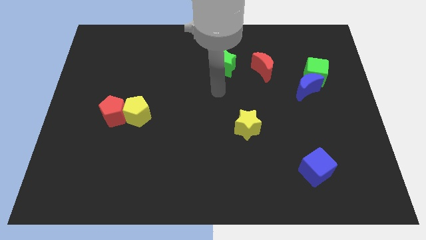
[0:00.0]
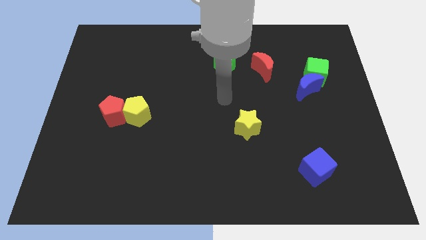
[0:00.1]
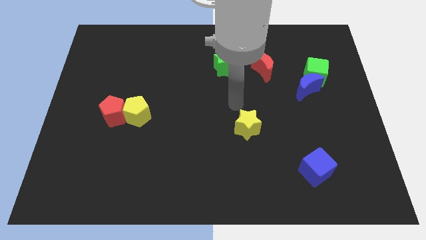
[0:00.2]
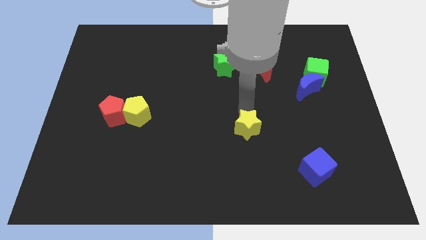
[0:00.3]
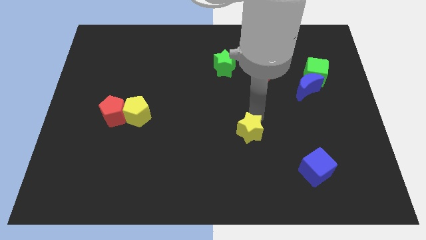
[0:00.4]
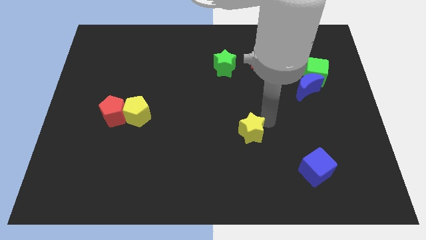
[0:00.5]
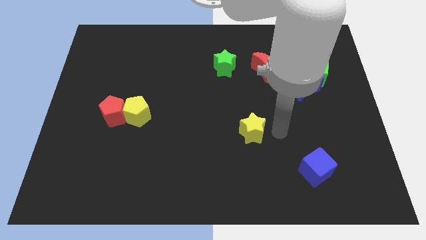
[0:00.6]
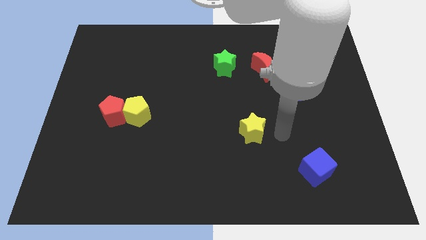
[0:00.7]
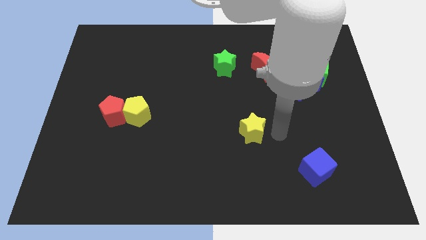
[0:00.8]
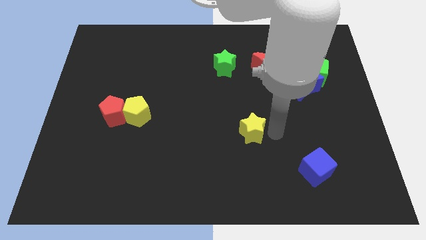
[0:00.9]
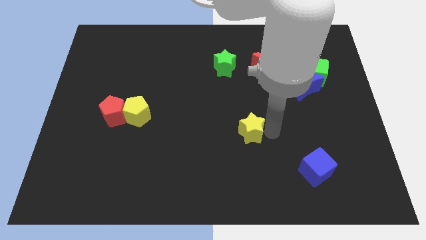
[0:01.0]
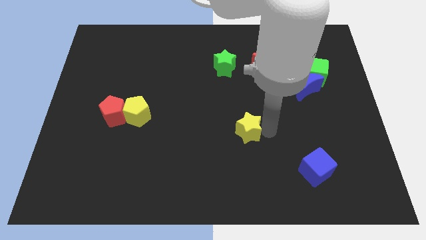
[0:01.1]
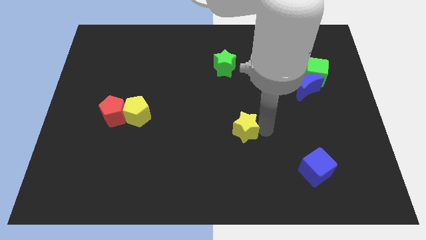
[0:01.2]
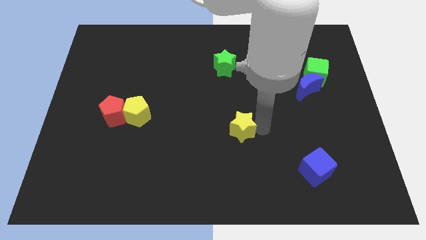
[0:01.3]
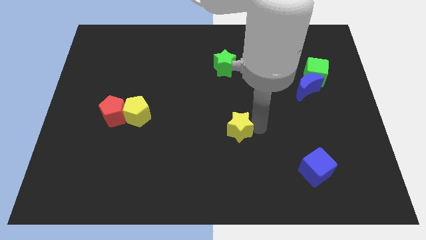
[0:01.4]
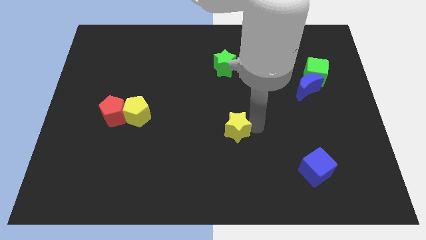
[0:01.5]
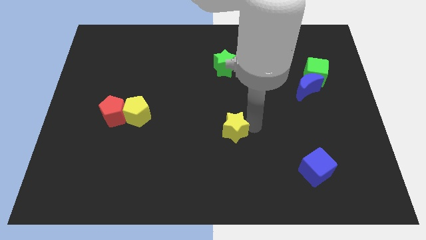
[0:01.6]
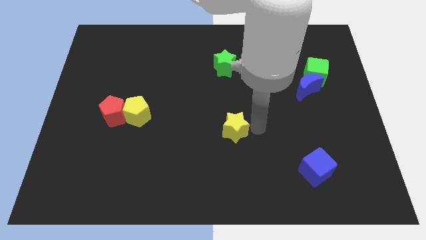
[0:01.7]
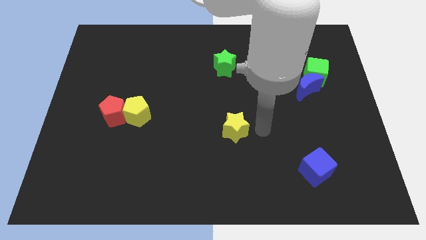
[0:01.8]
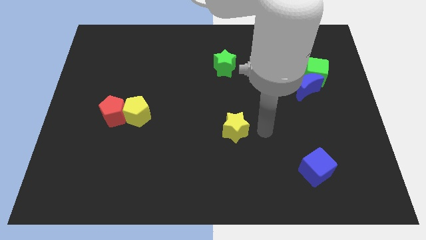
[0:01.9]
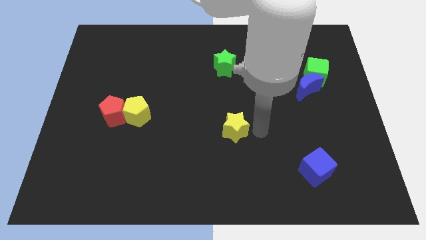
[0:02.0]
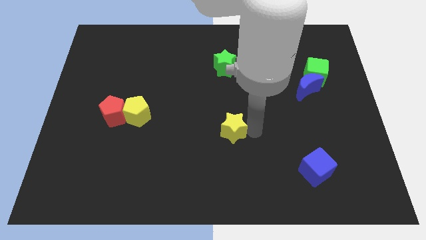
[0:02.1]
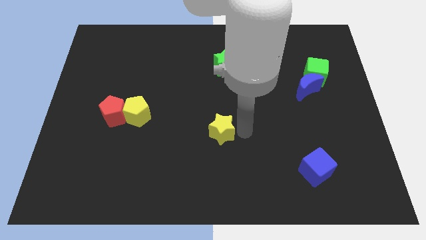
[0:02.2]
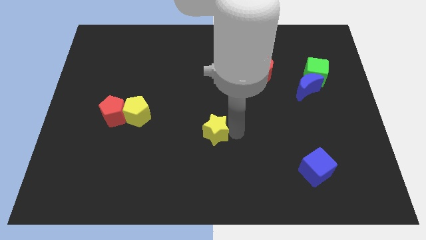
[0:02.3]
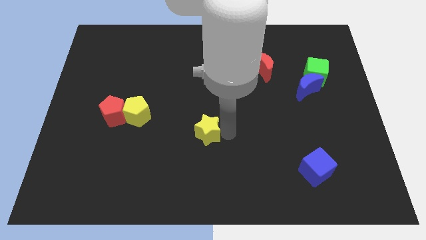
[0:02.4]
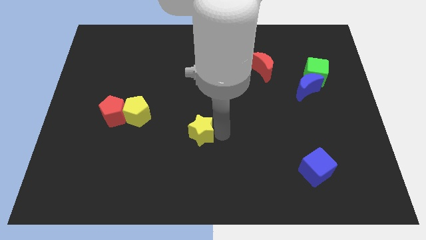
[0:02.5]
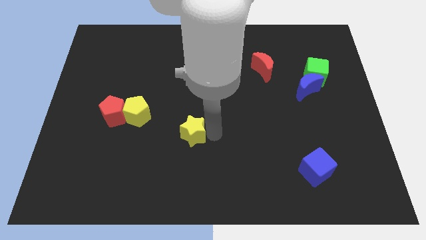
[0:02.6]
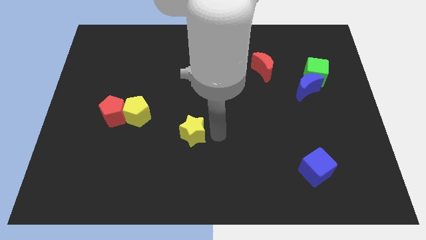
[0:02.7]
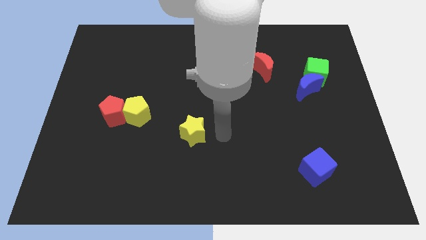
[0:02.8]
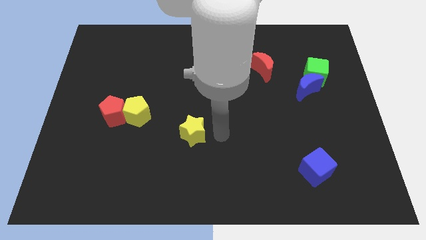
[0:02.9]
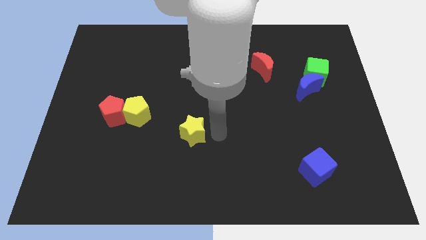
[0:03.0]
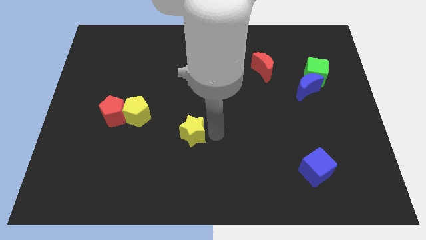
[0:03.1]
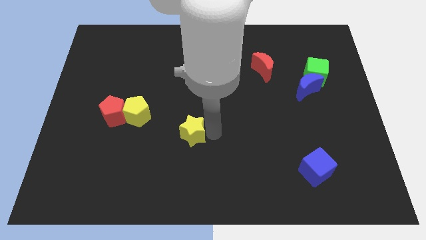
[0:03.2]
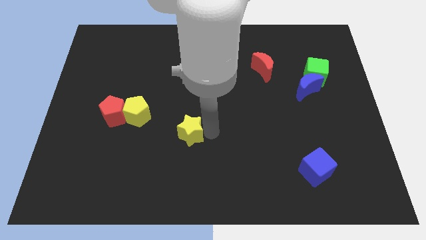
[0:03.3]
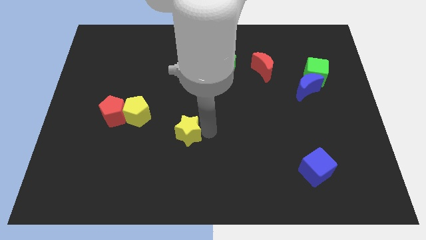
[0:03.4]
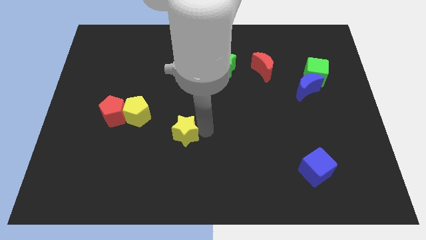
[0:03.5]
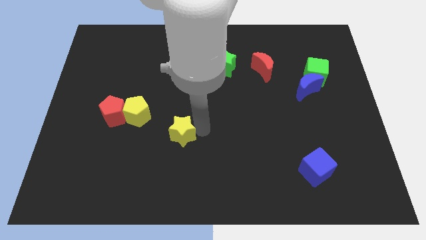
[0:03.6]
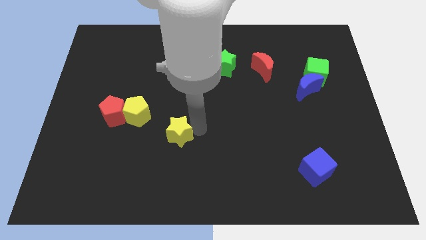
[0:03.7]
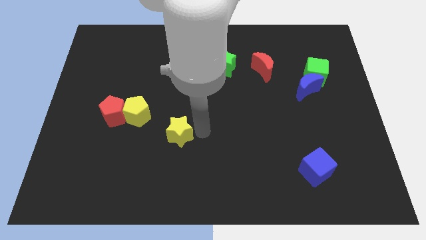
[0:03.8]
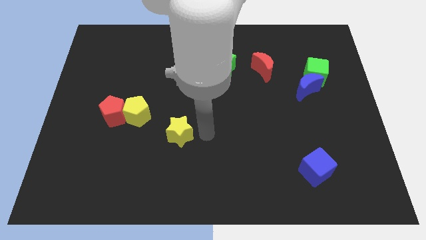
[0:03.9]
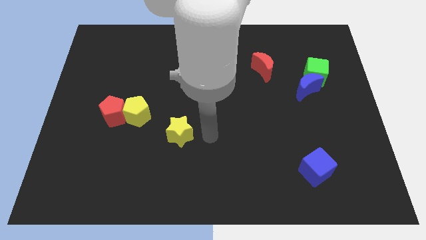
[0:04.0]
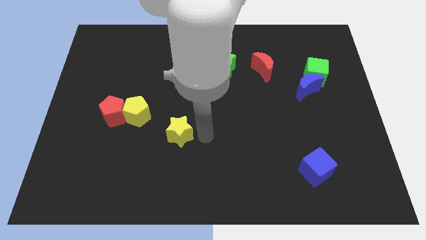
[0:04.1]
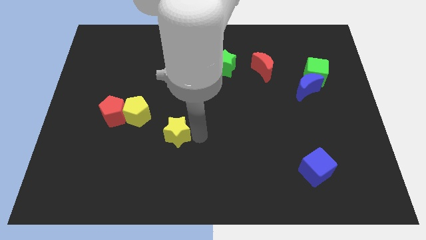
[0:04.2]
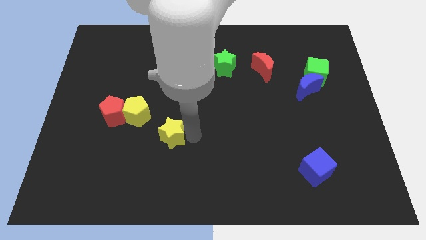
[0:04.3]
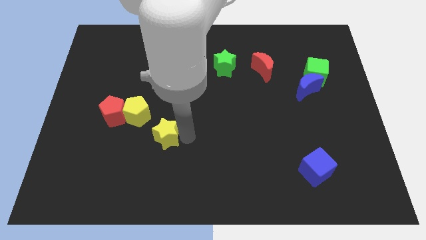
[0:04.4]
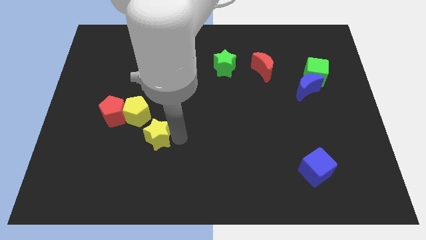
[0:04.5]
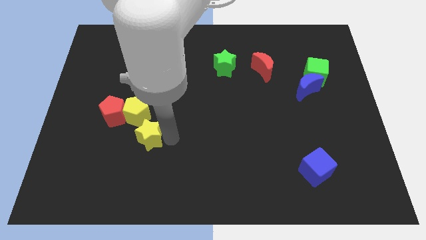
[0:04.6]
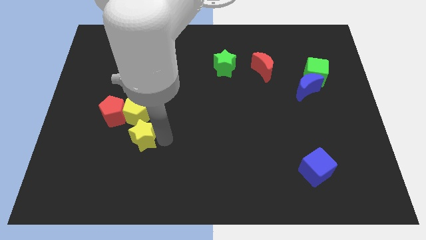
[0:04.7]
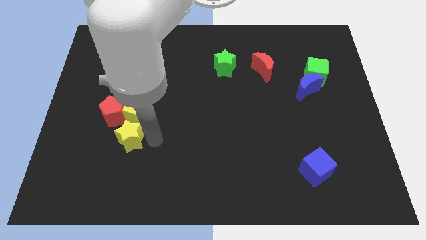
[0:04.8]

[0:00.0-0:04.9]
push the yellow star to the bottom left side of the yellow pentagon

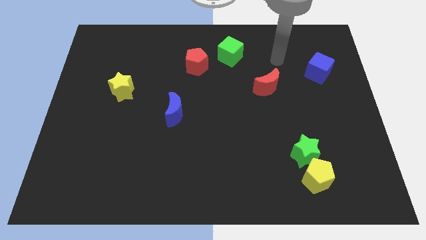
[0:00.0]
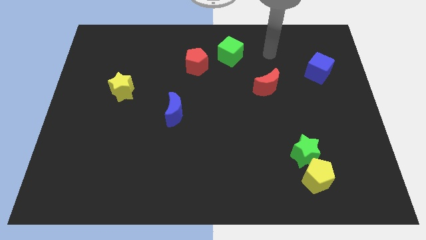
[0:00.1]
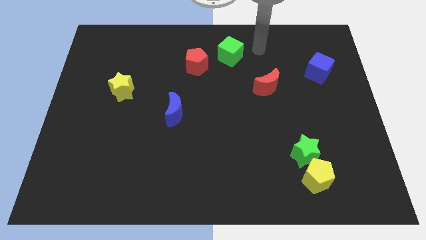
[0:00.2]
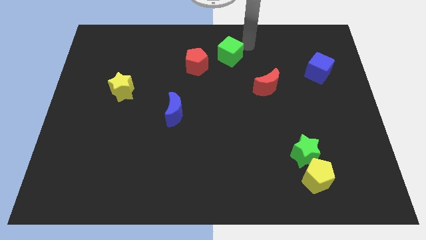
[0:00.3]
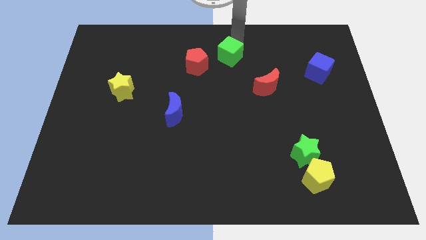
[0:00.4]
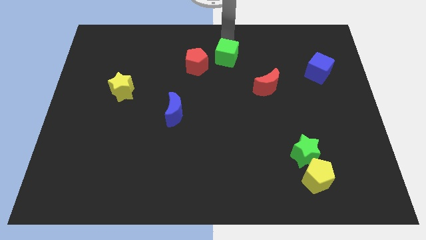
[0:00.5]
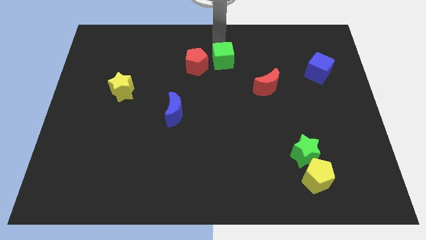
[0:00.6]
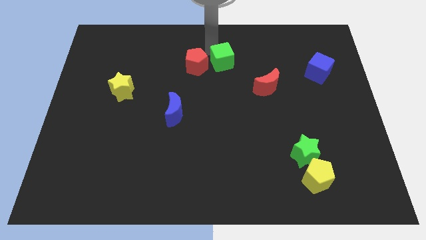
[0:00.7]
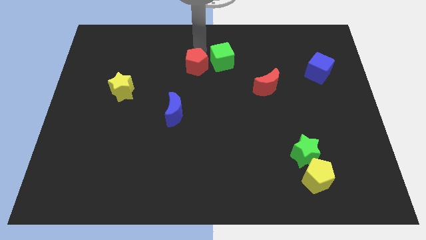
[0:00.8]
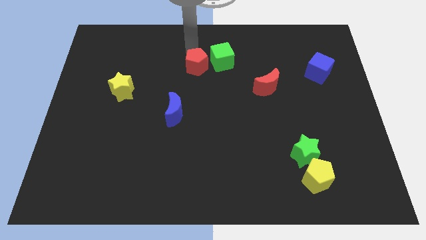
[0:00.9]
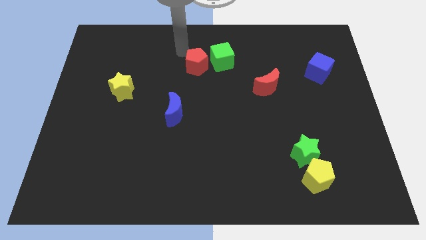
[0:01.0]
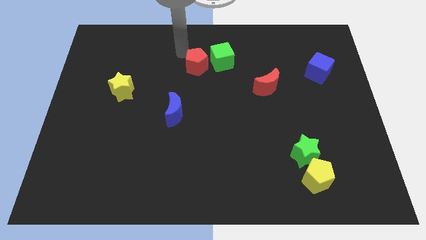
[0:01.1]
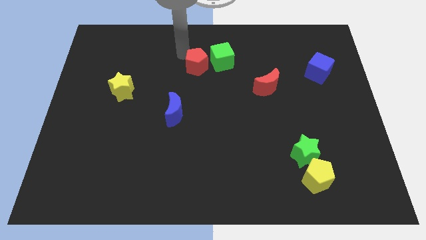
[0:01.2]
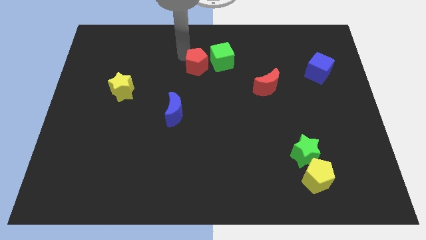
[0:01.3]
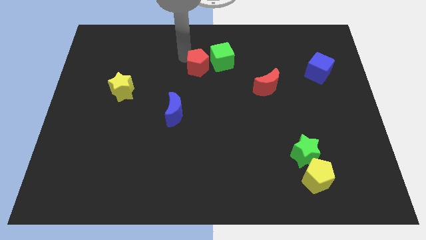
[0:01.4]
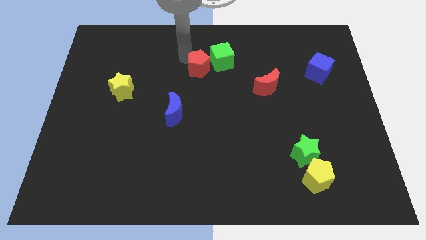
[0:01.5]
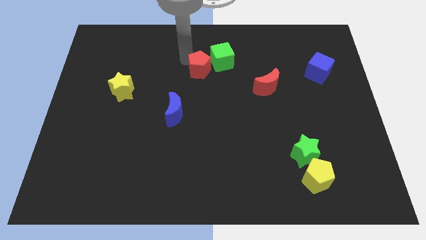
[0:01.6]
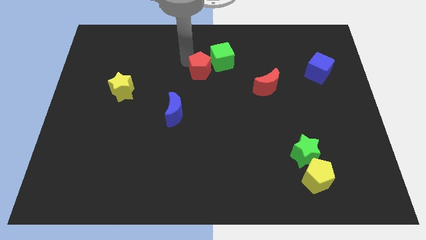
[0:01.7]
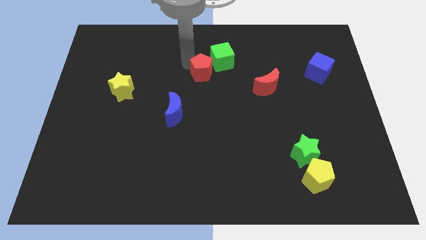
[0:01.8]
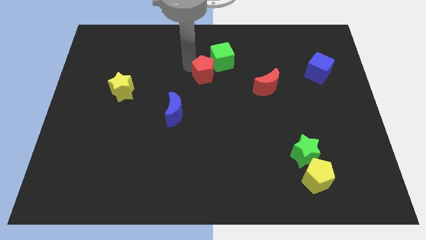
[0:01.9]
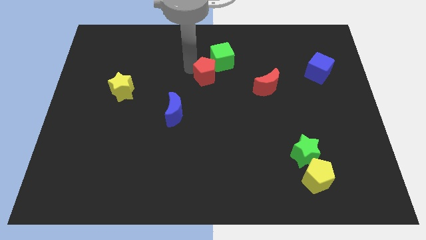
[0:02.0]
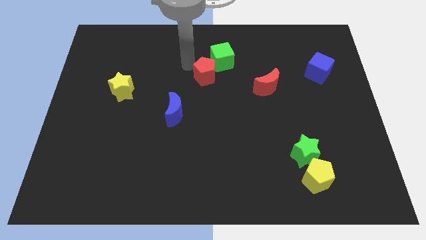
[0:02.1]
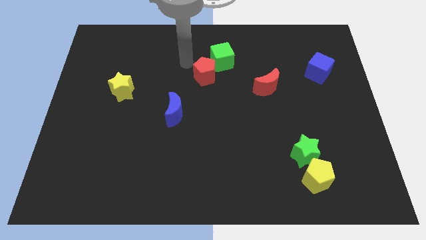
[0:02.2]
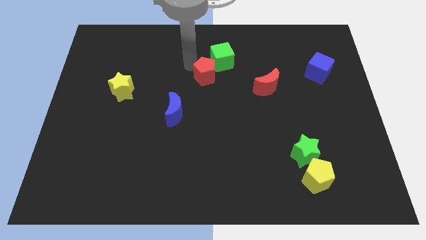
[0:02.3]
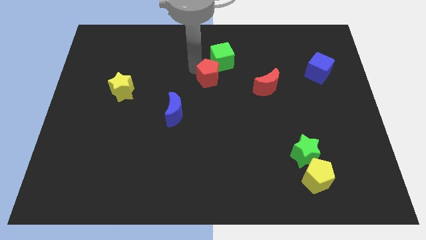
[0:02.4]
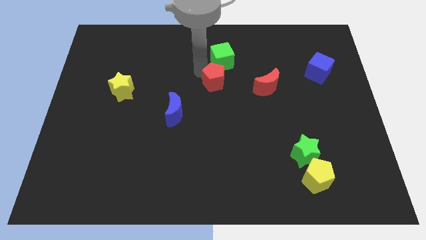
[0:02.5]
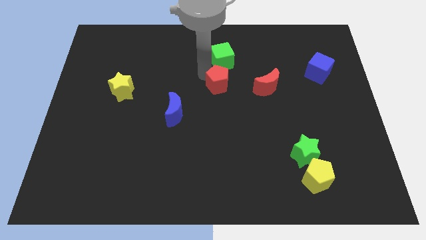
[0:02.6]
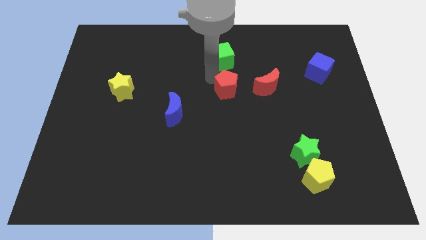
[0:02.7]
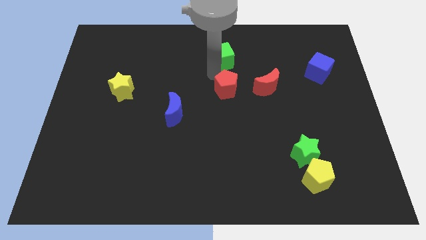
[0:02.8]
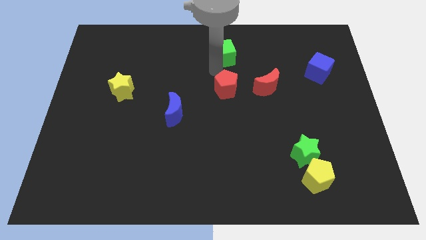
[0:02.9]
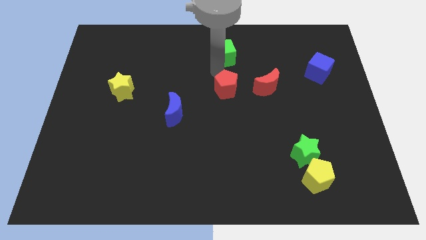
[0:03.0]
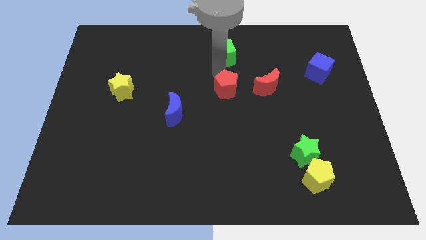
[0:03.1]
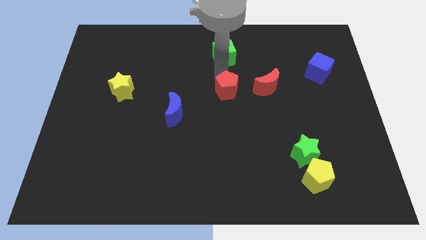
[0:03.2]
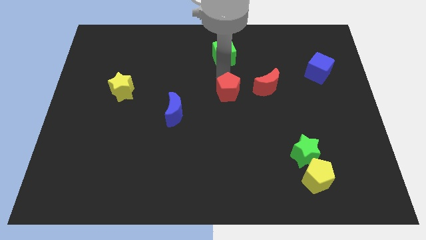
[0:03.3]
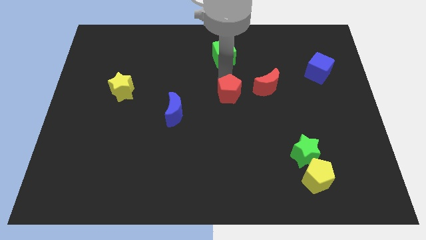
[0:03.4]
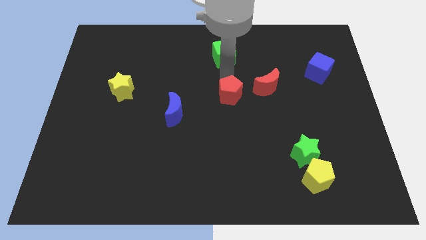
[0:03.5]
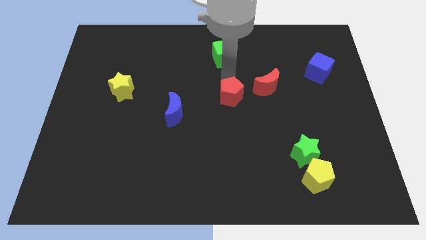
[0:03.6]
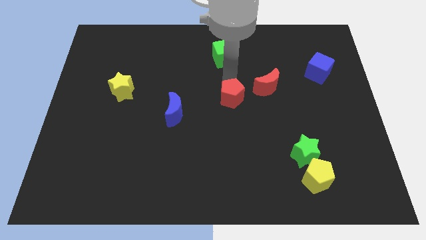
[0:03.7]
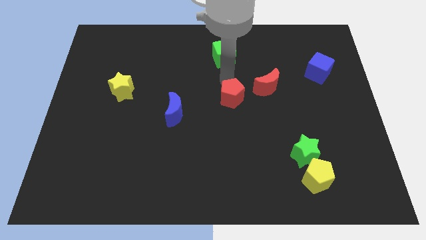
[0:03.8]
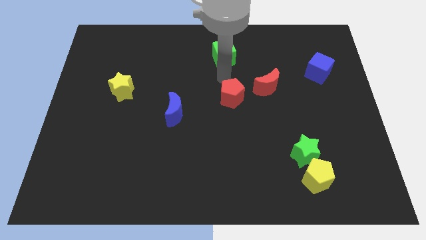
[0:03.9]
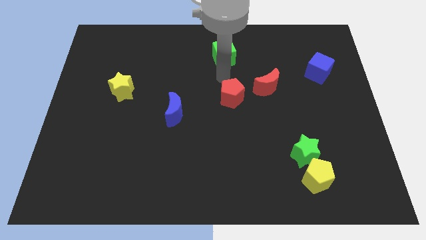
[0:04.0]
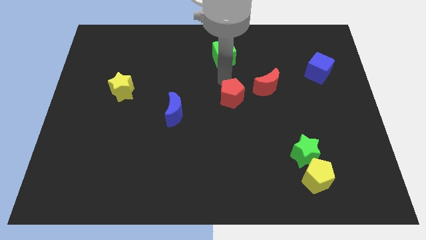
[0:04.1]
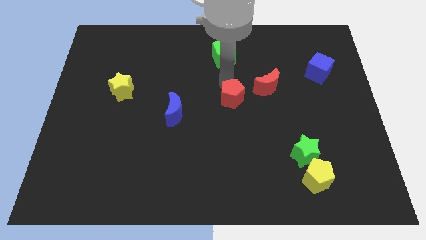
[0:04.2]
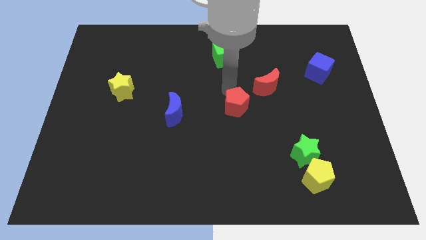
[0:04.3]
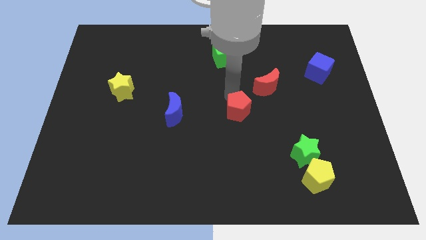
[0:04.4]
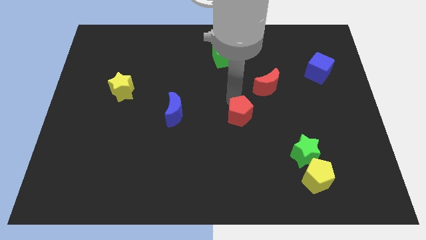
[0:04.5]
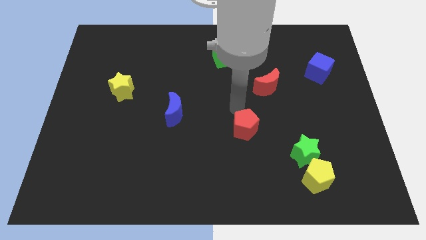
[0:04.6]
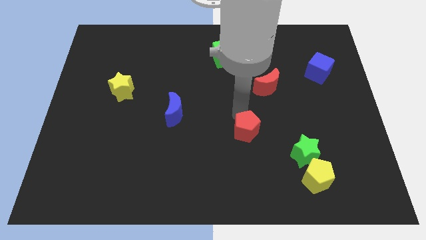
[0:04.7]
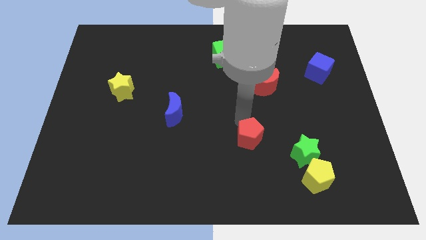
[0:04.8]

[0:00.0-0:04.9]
push the red pentagon to the left of the green star
